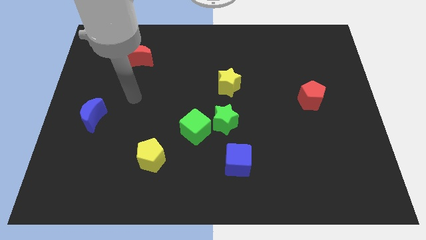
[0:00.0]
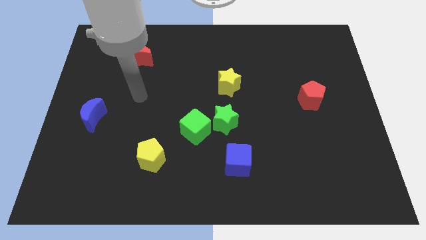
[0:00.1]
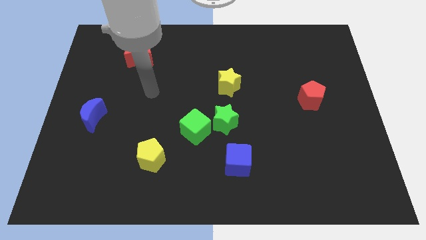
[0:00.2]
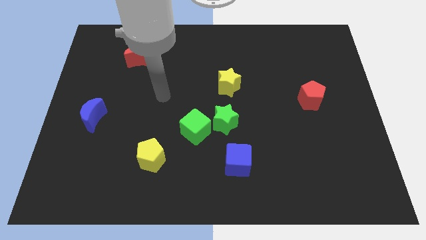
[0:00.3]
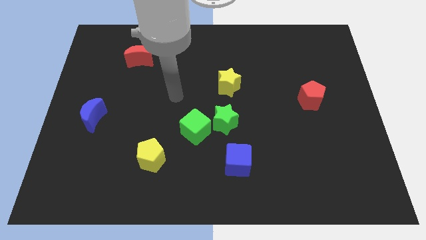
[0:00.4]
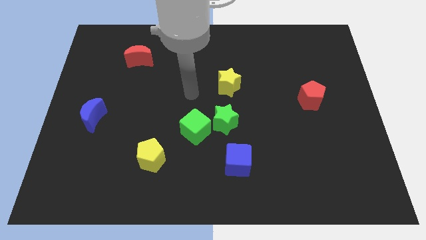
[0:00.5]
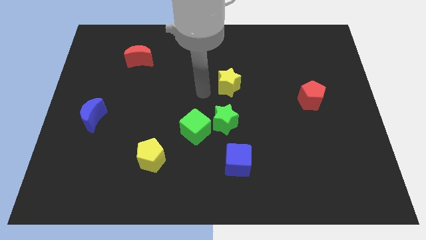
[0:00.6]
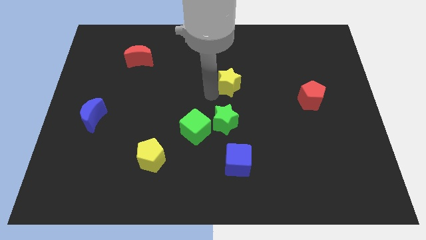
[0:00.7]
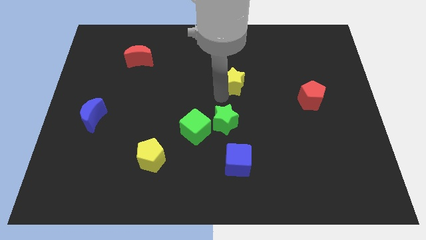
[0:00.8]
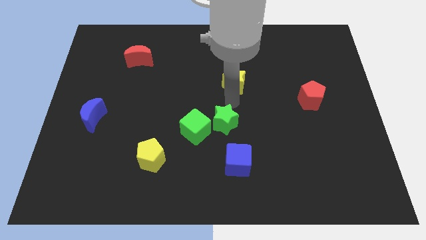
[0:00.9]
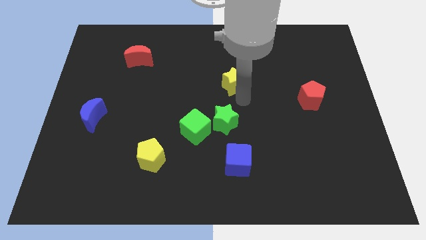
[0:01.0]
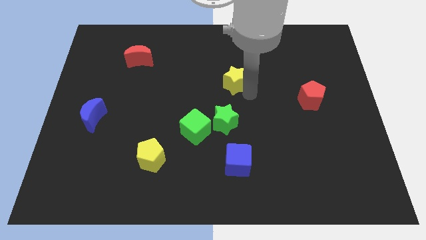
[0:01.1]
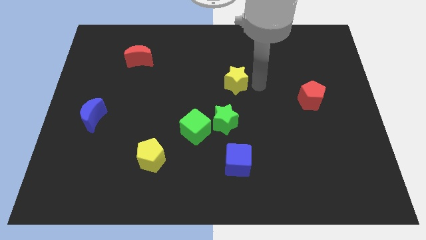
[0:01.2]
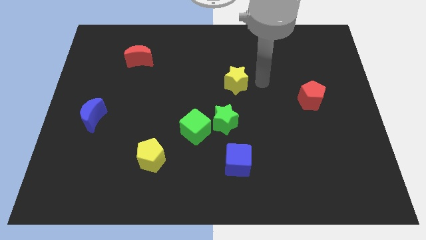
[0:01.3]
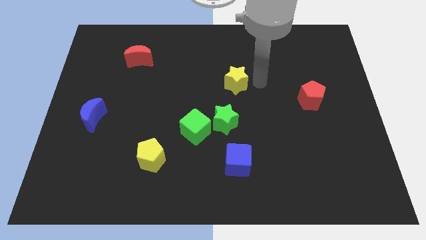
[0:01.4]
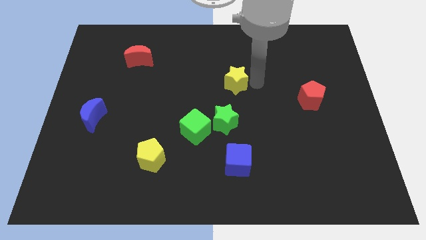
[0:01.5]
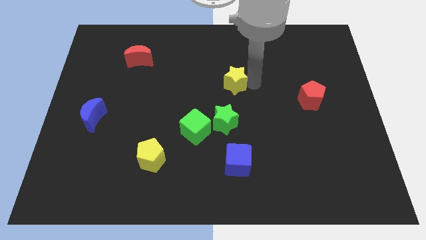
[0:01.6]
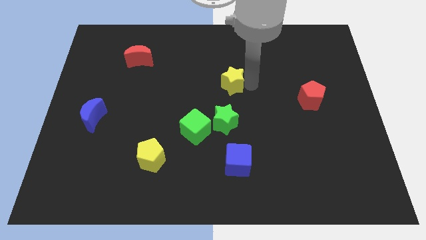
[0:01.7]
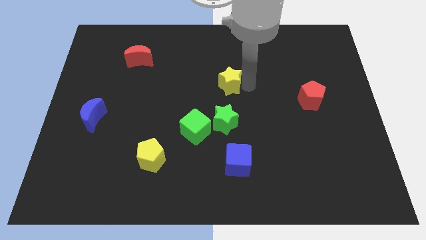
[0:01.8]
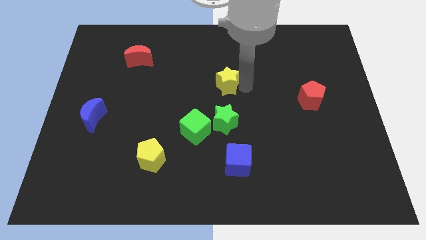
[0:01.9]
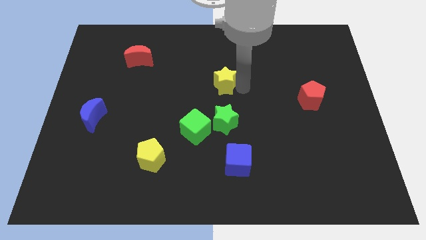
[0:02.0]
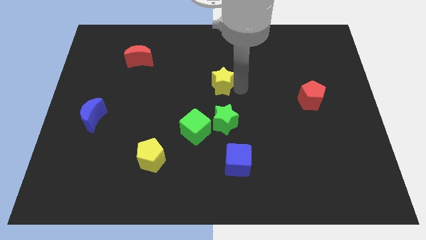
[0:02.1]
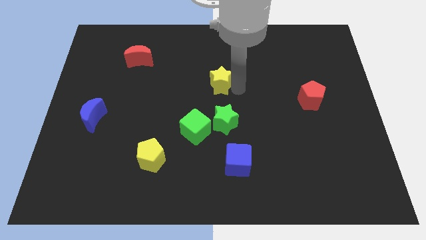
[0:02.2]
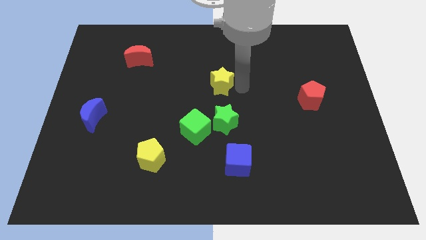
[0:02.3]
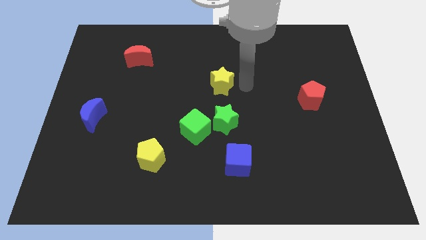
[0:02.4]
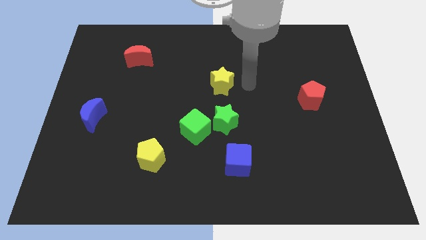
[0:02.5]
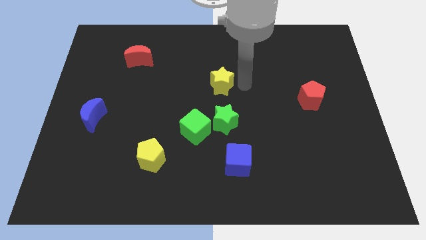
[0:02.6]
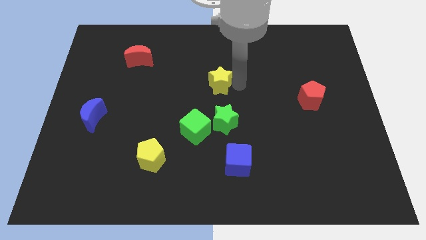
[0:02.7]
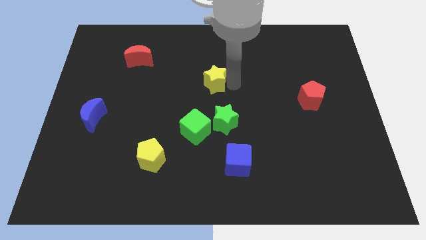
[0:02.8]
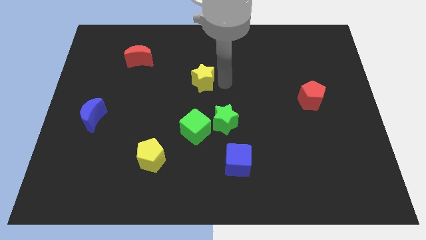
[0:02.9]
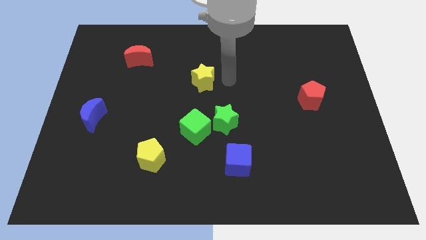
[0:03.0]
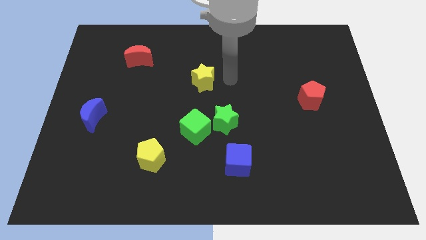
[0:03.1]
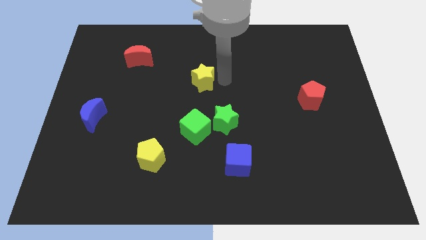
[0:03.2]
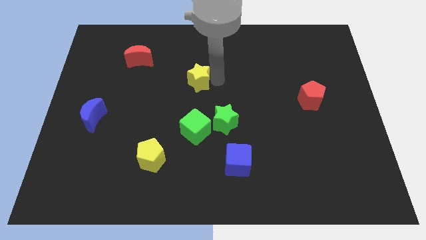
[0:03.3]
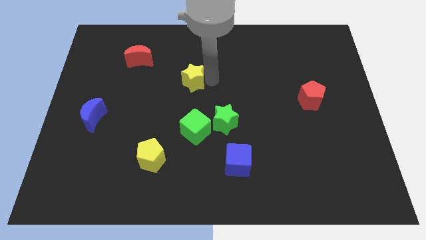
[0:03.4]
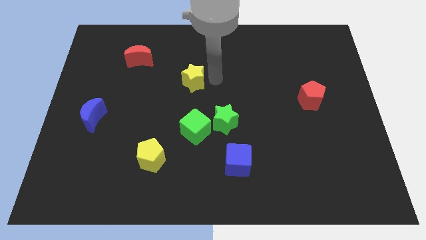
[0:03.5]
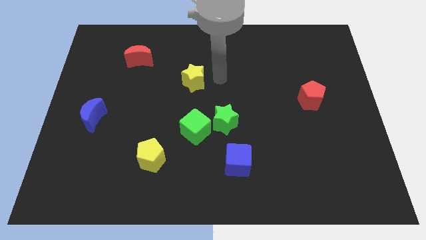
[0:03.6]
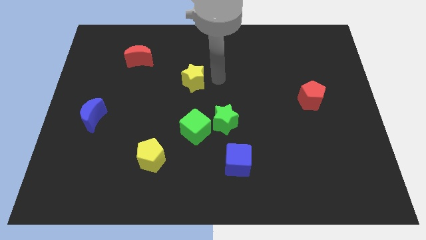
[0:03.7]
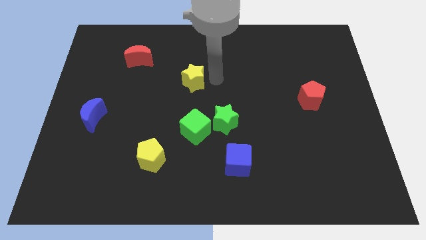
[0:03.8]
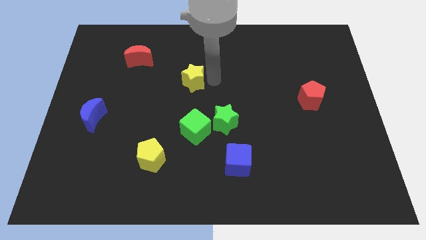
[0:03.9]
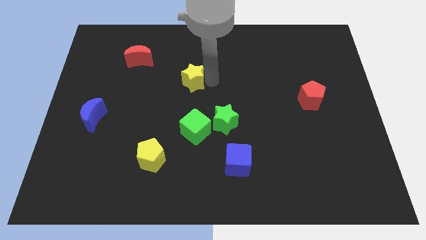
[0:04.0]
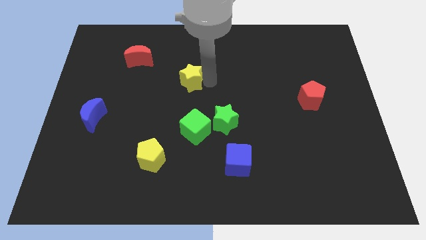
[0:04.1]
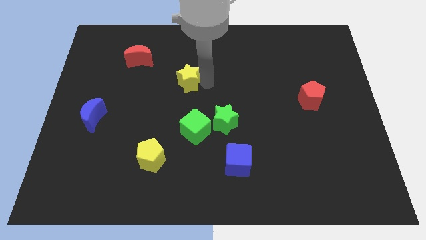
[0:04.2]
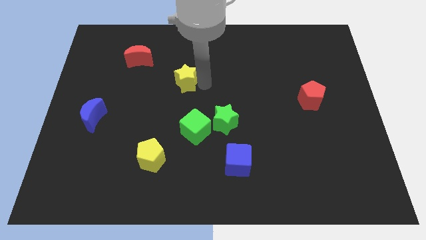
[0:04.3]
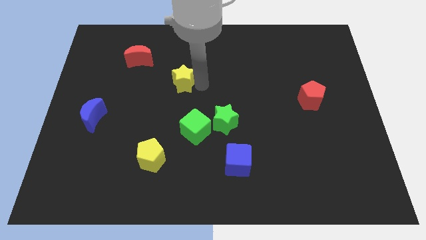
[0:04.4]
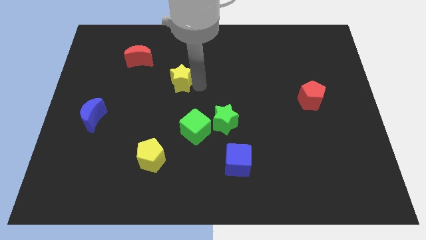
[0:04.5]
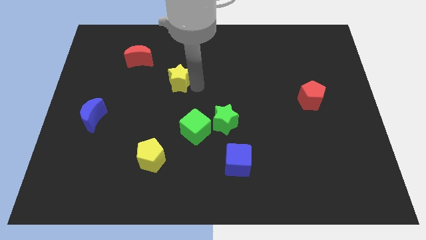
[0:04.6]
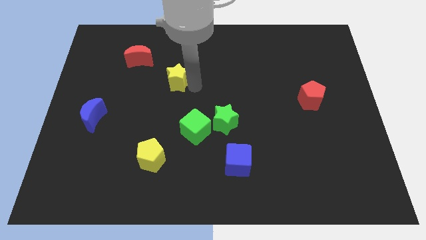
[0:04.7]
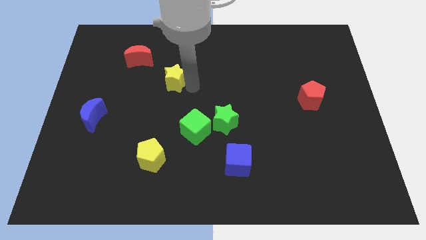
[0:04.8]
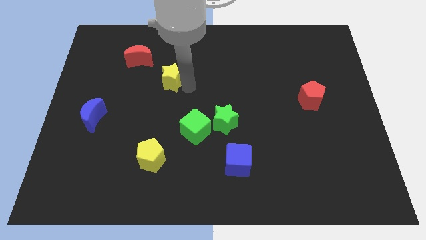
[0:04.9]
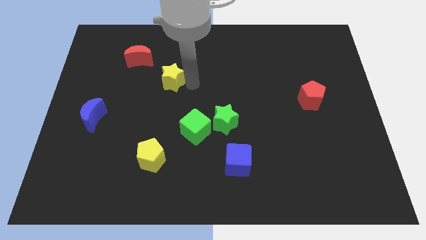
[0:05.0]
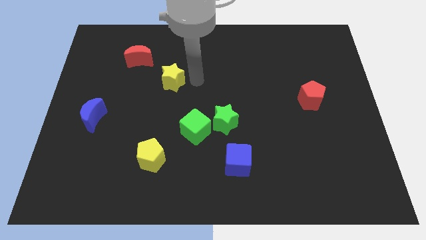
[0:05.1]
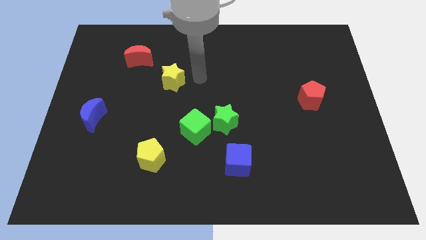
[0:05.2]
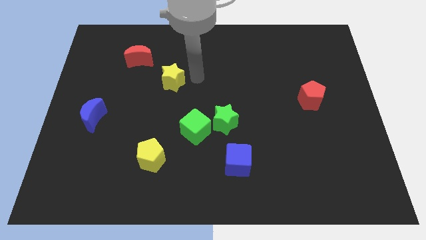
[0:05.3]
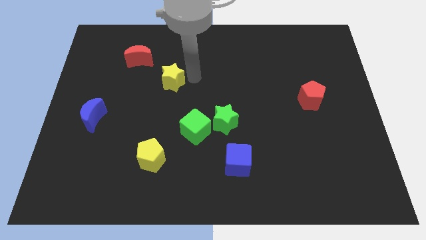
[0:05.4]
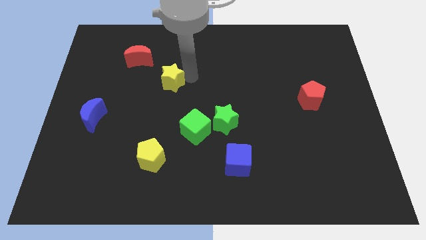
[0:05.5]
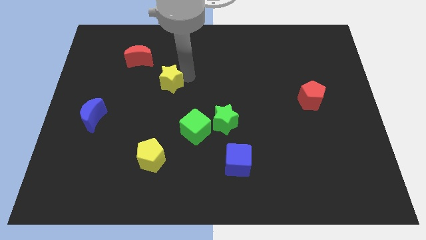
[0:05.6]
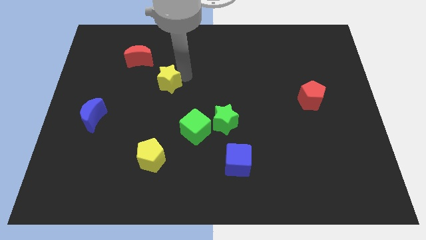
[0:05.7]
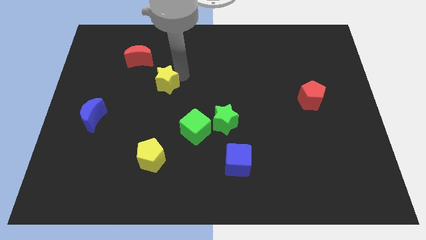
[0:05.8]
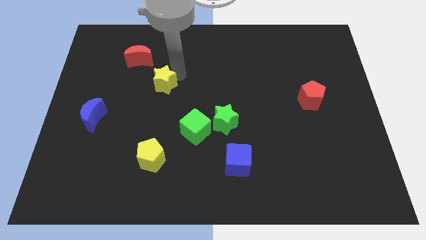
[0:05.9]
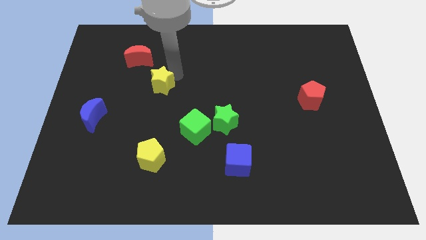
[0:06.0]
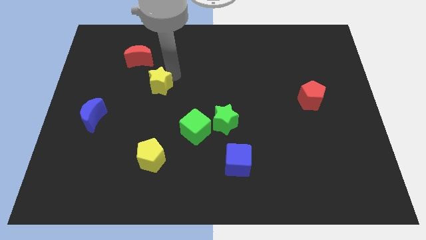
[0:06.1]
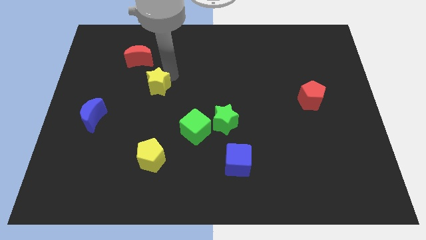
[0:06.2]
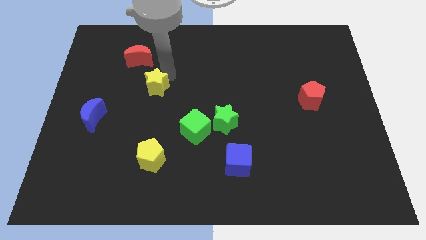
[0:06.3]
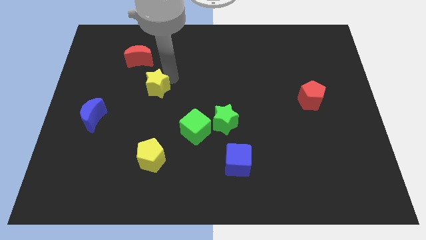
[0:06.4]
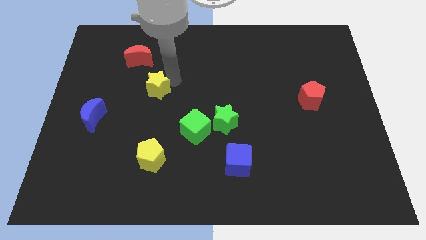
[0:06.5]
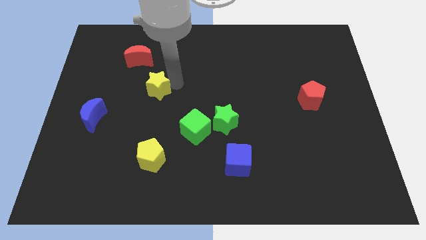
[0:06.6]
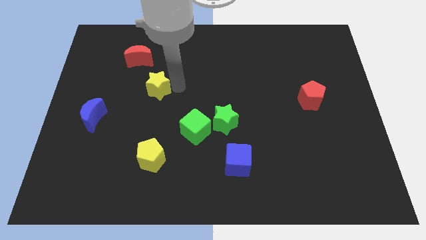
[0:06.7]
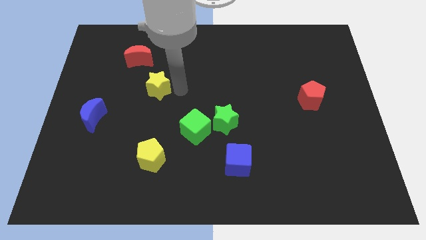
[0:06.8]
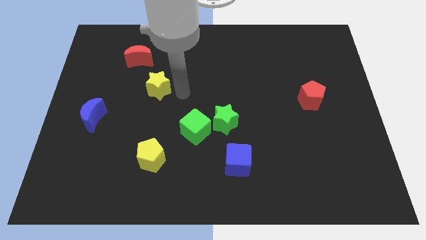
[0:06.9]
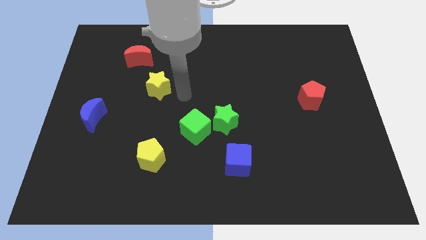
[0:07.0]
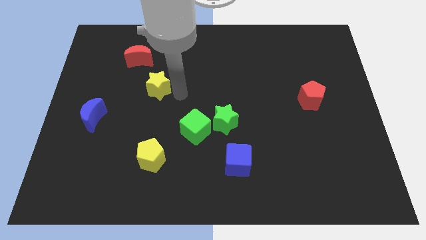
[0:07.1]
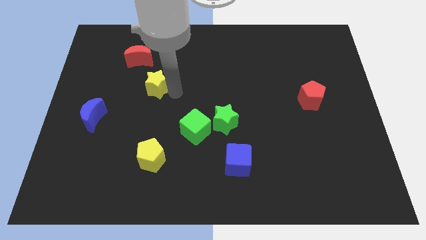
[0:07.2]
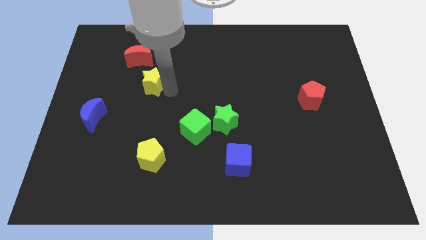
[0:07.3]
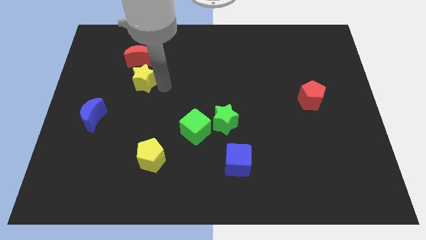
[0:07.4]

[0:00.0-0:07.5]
slide the yellow star to the left

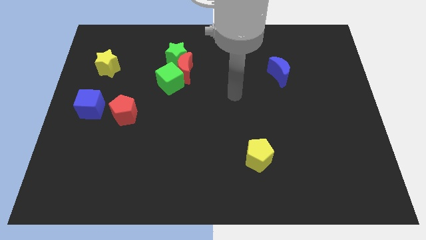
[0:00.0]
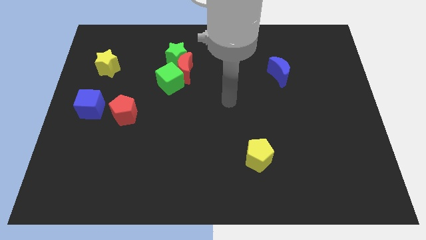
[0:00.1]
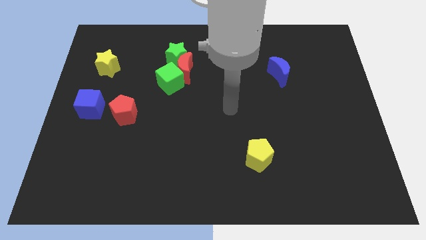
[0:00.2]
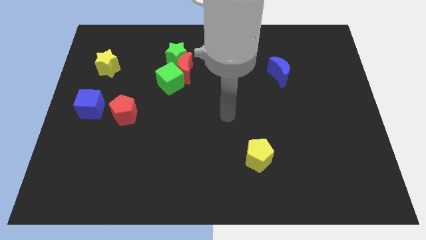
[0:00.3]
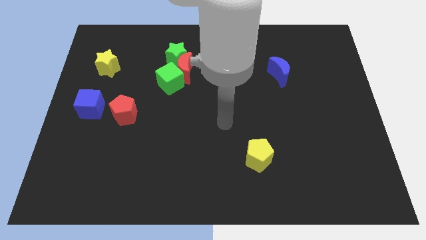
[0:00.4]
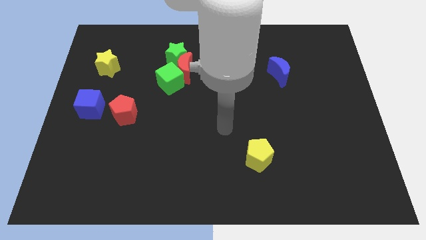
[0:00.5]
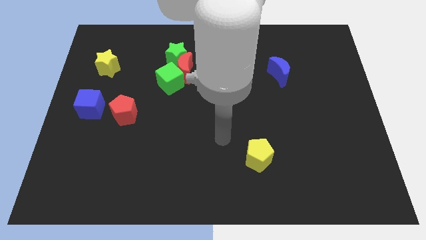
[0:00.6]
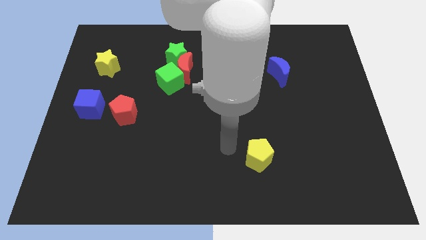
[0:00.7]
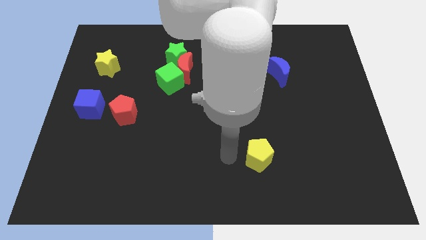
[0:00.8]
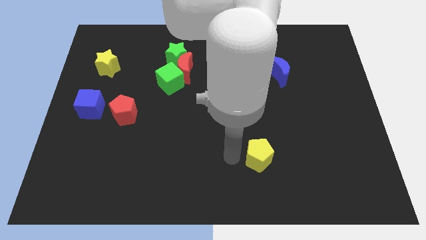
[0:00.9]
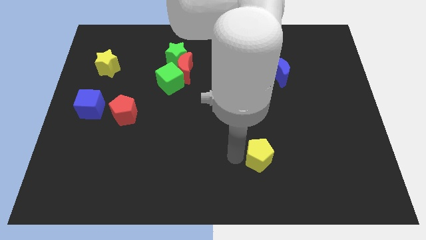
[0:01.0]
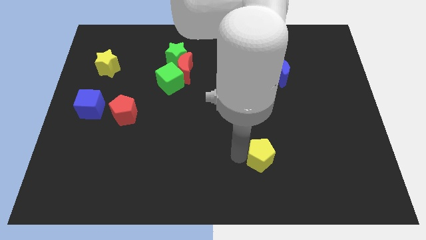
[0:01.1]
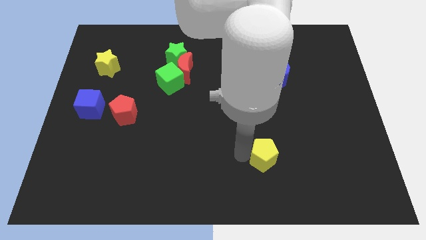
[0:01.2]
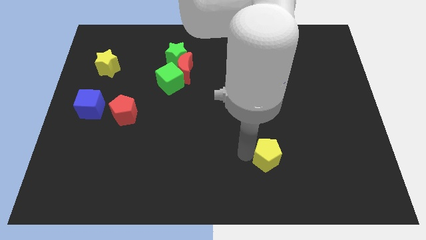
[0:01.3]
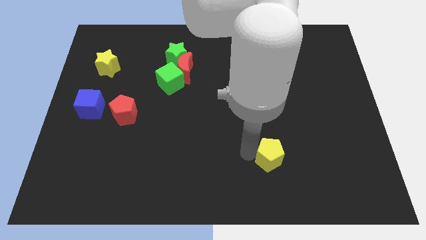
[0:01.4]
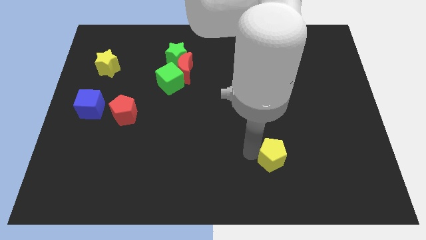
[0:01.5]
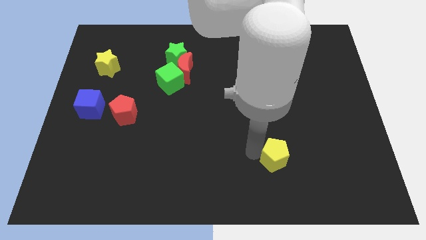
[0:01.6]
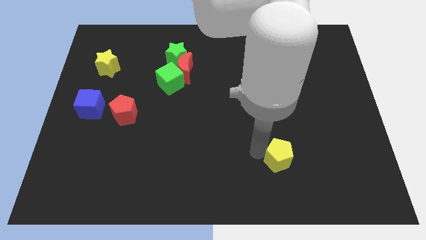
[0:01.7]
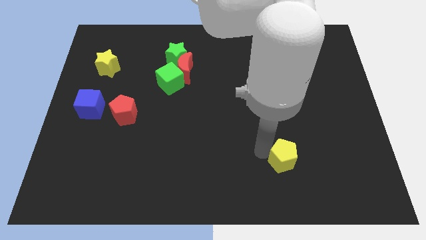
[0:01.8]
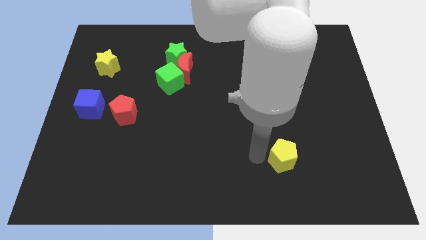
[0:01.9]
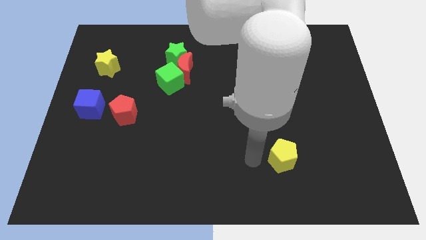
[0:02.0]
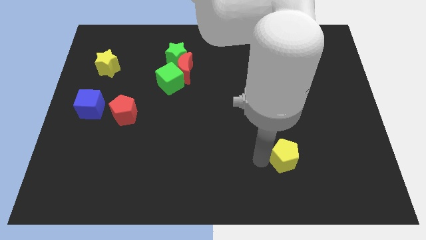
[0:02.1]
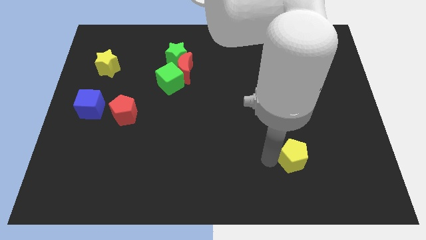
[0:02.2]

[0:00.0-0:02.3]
slightly slide the yellow pentagon to the right
